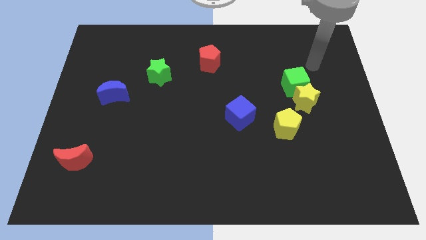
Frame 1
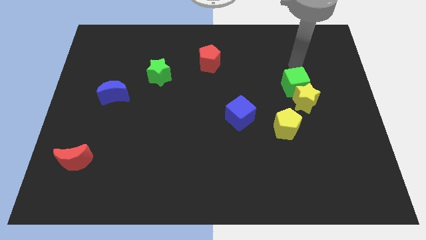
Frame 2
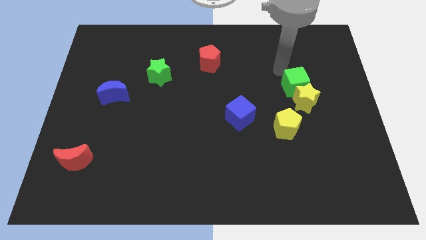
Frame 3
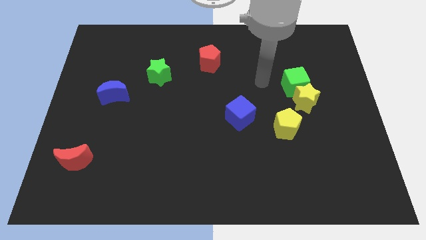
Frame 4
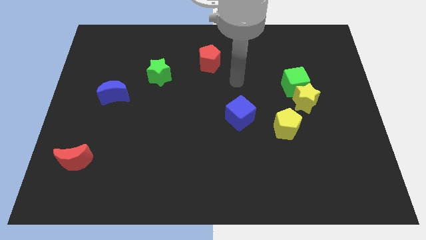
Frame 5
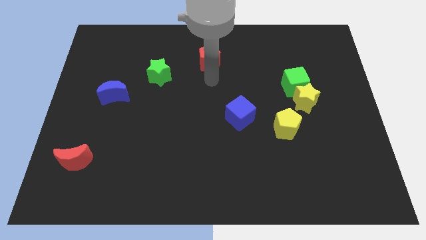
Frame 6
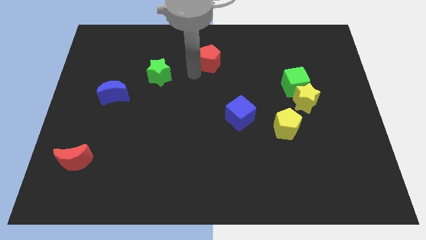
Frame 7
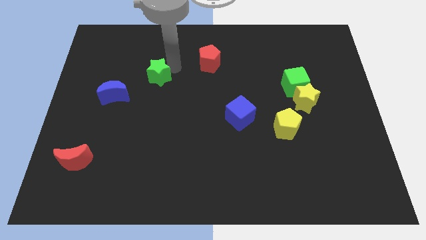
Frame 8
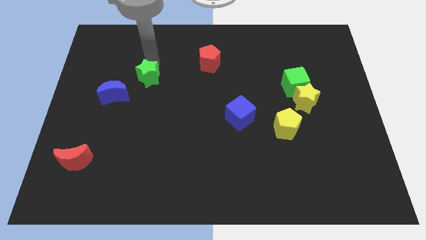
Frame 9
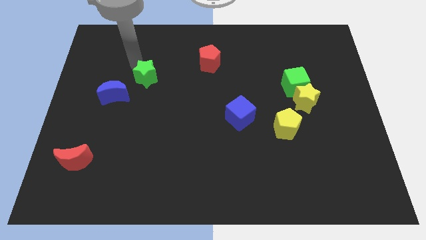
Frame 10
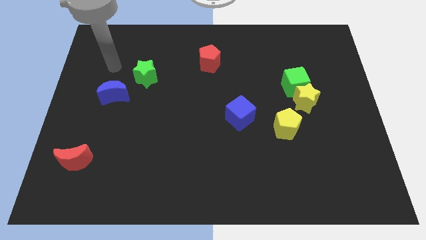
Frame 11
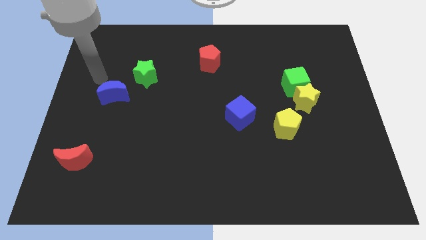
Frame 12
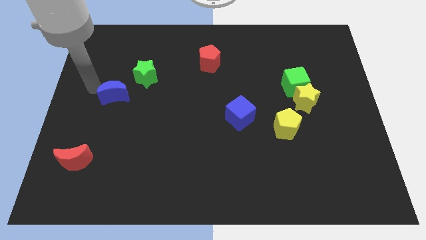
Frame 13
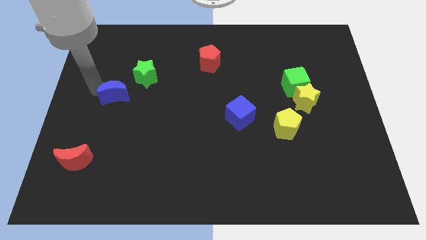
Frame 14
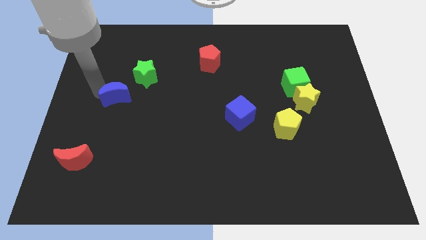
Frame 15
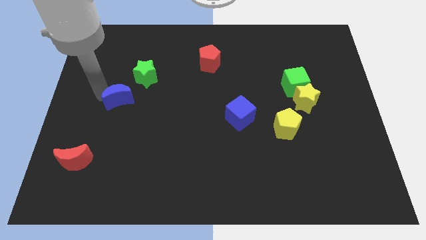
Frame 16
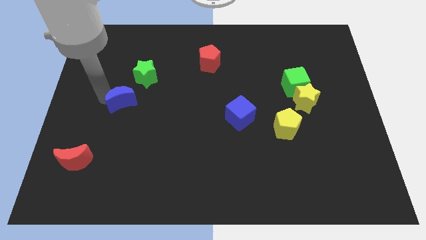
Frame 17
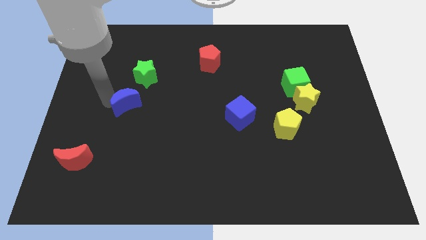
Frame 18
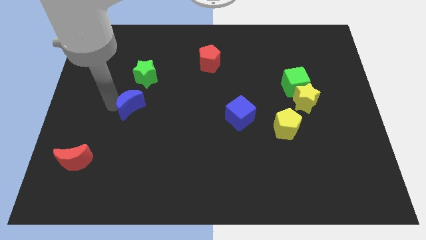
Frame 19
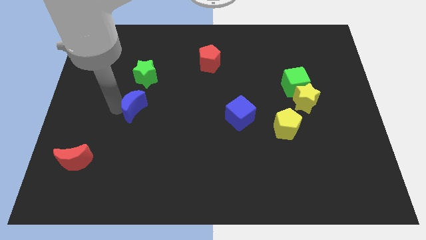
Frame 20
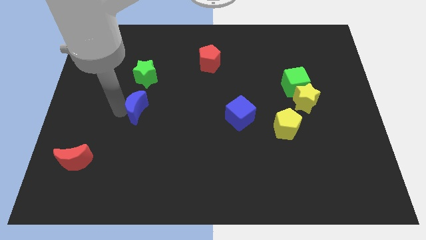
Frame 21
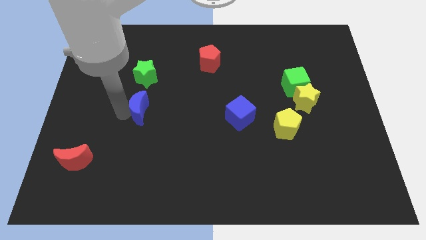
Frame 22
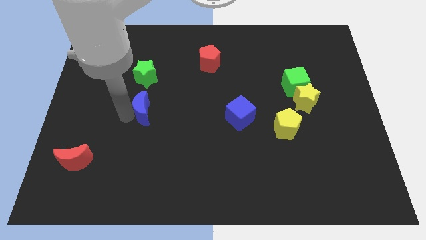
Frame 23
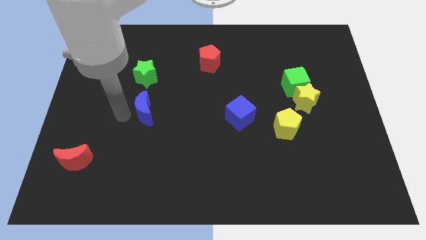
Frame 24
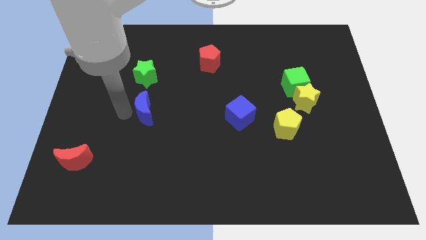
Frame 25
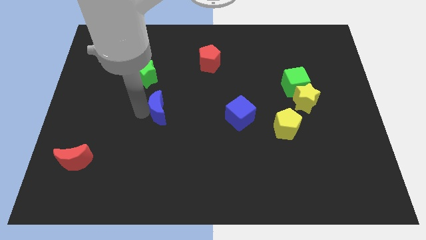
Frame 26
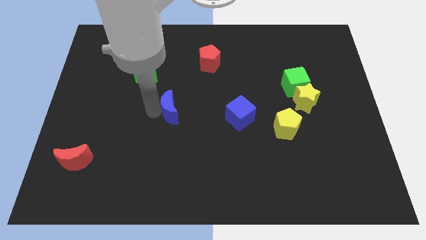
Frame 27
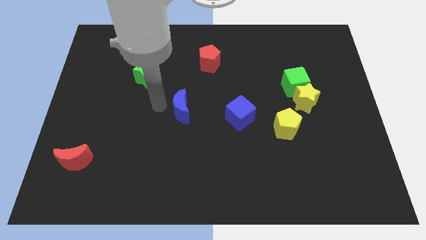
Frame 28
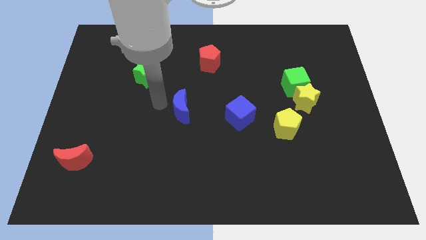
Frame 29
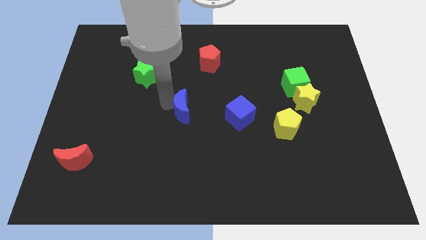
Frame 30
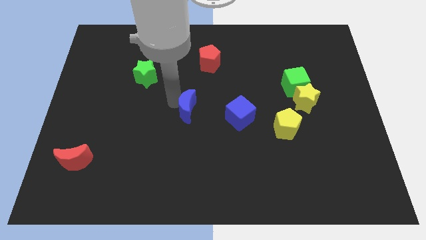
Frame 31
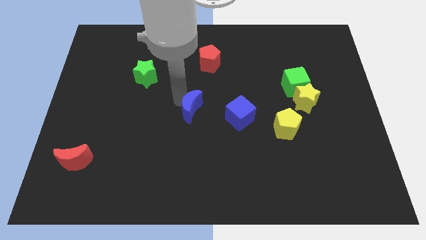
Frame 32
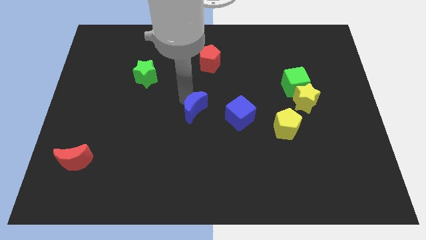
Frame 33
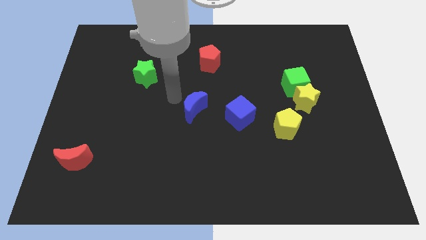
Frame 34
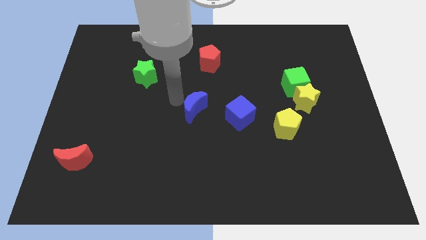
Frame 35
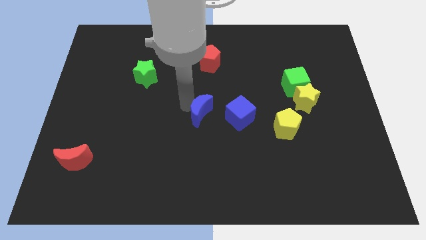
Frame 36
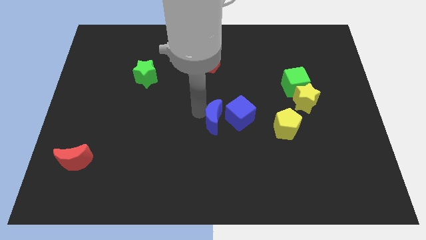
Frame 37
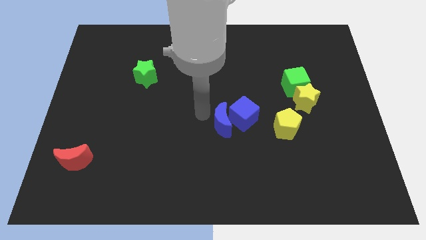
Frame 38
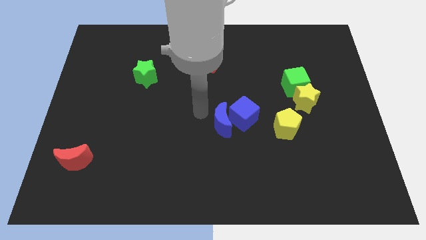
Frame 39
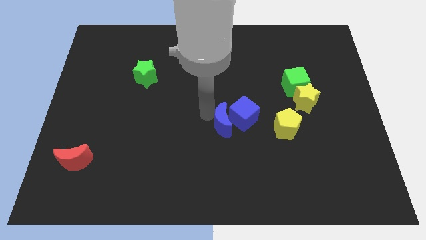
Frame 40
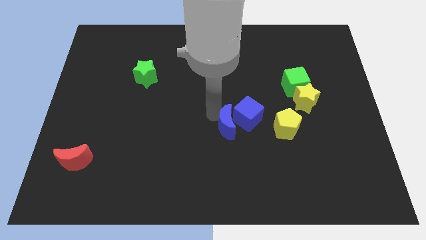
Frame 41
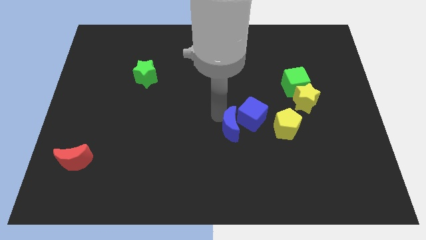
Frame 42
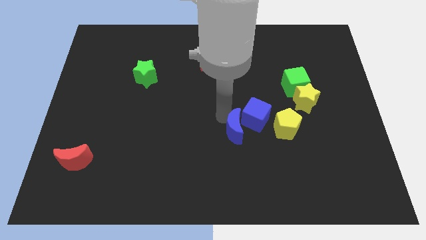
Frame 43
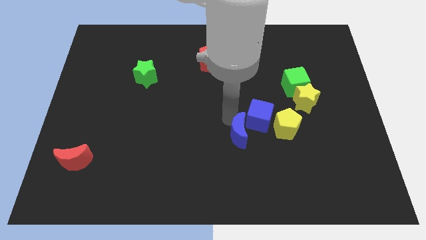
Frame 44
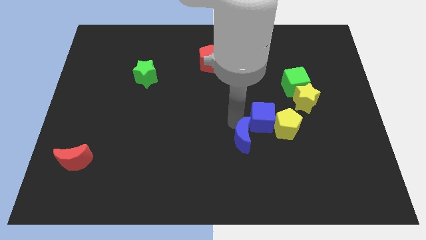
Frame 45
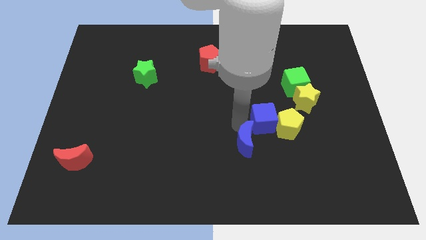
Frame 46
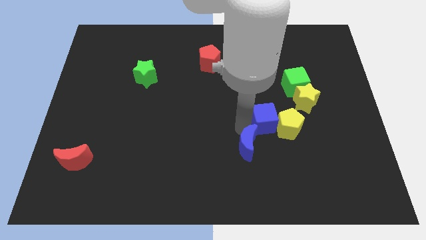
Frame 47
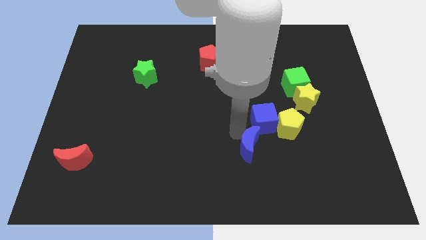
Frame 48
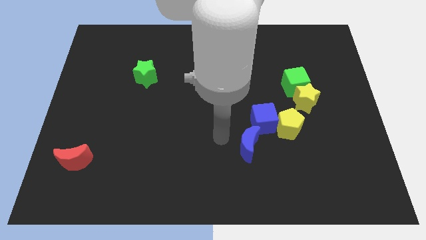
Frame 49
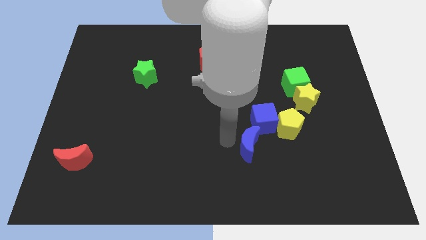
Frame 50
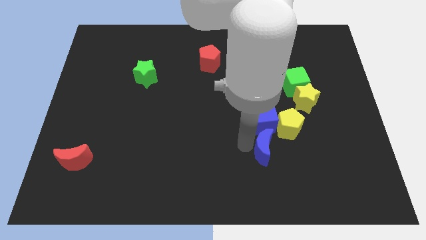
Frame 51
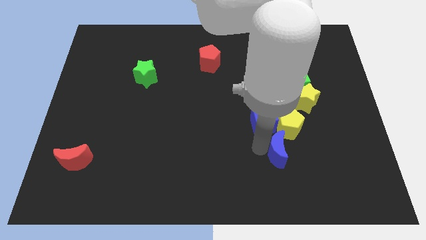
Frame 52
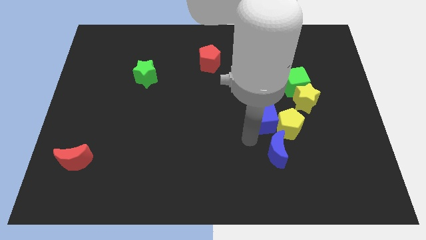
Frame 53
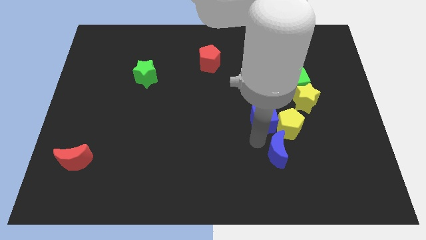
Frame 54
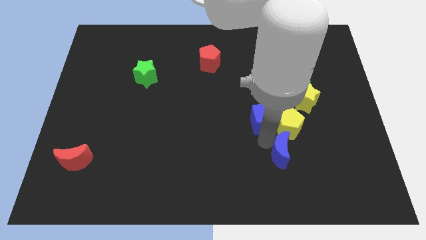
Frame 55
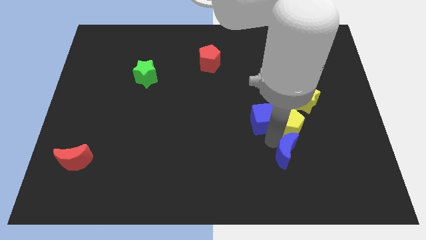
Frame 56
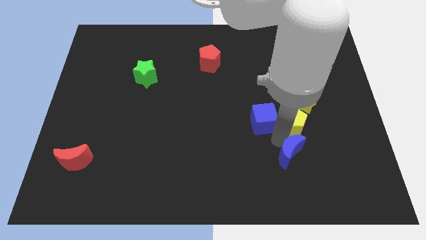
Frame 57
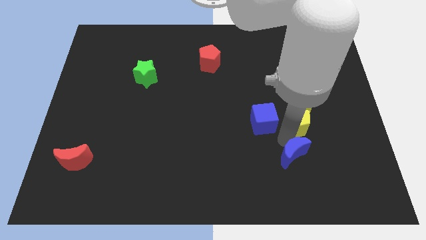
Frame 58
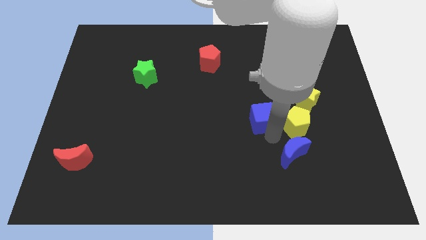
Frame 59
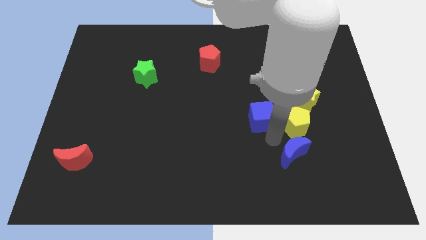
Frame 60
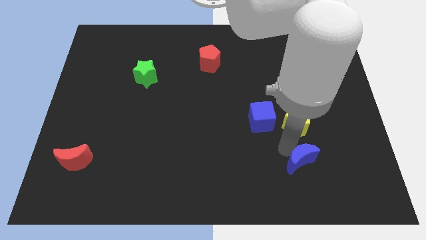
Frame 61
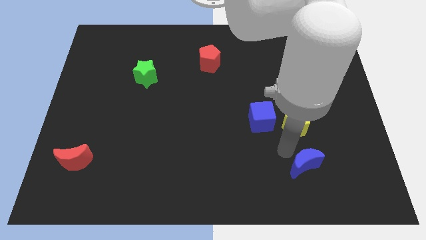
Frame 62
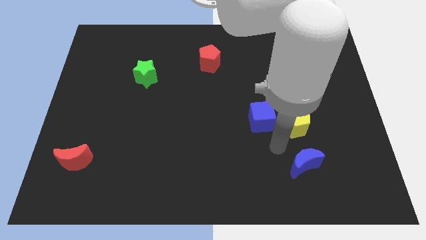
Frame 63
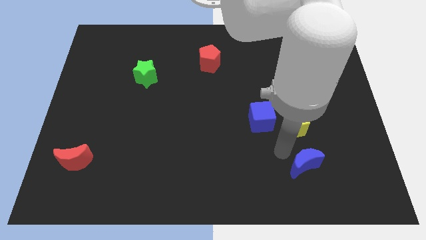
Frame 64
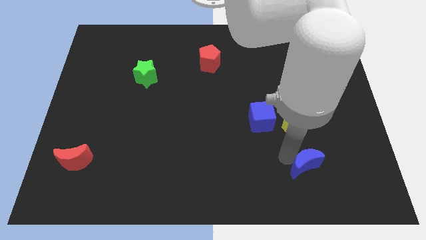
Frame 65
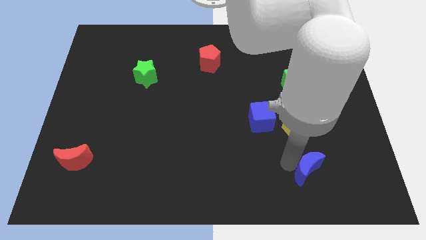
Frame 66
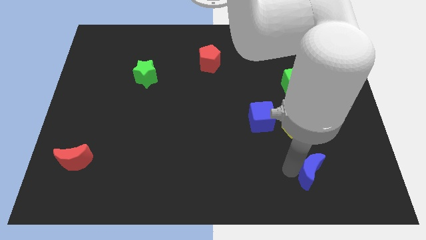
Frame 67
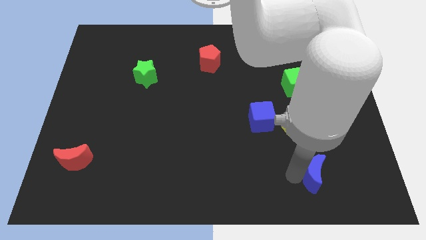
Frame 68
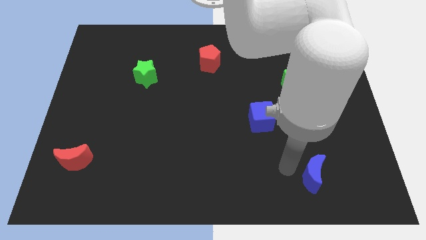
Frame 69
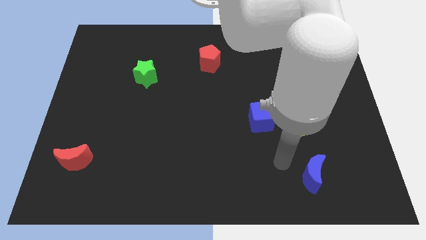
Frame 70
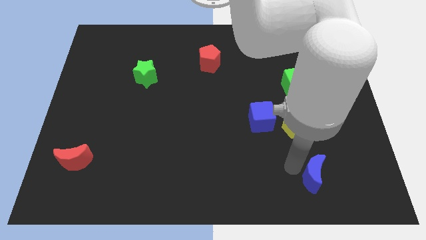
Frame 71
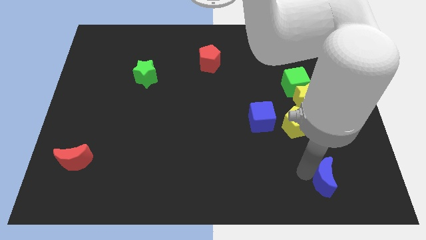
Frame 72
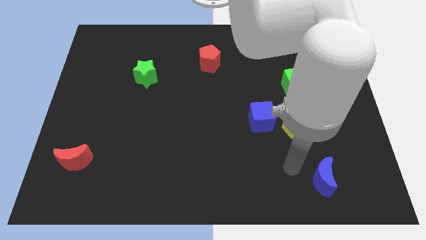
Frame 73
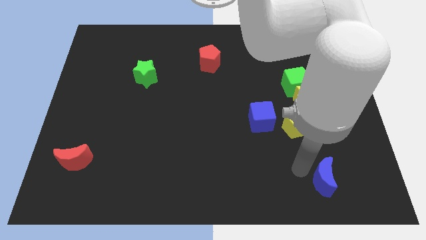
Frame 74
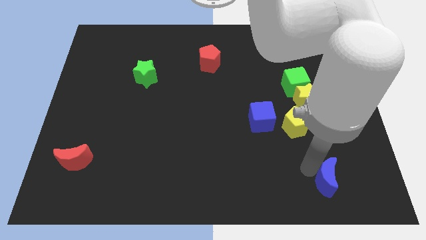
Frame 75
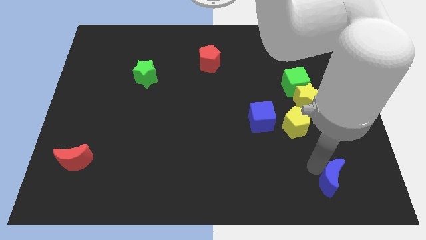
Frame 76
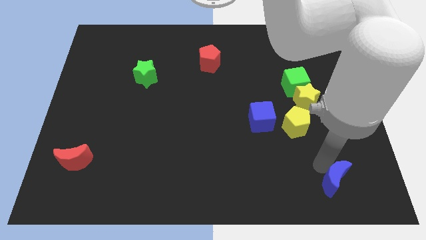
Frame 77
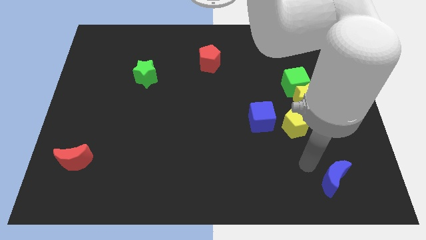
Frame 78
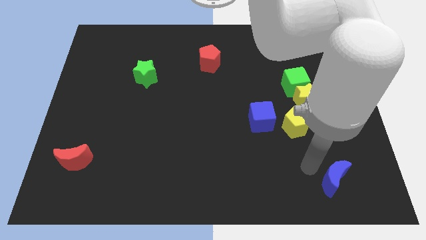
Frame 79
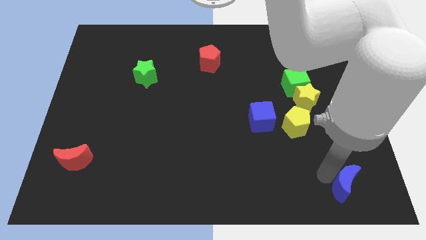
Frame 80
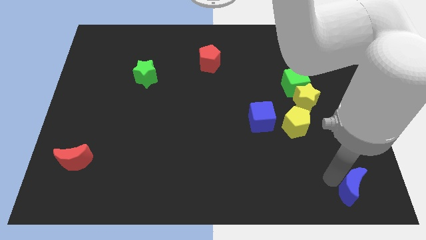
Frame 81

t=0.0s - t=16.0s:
move the blue moon to the bottom right corner
